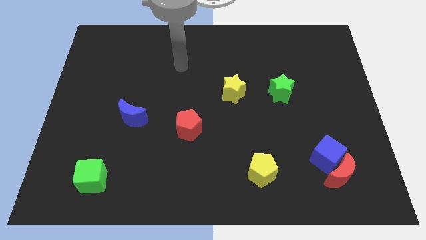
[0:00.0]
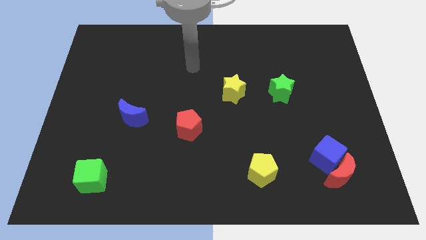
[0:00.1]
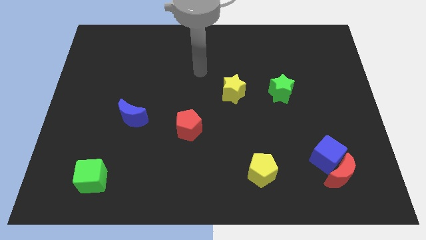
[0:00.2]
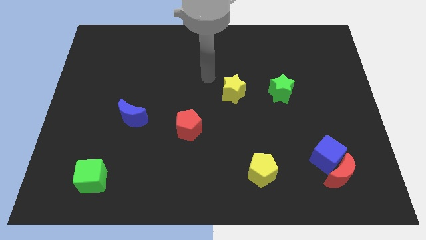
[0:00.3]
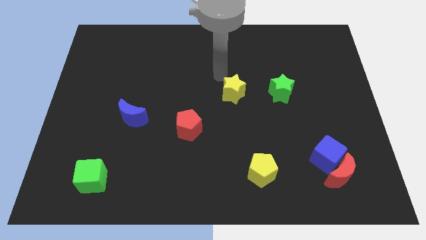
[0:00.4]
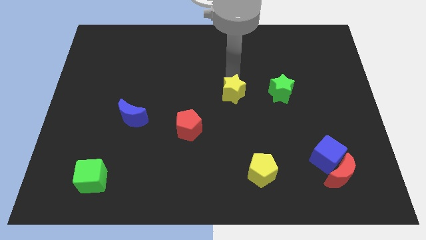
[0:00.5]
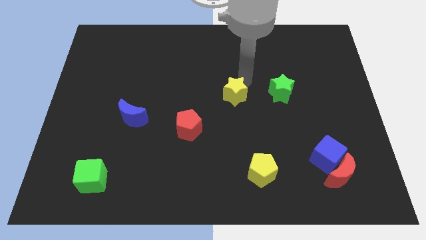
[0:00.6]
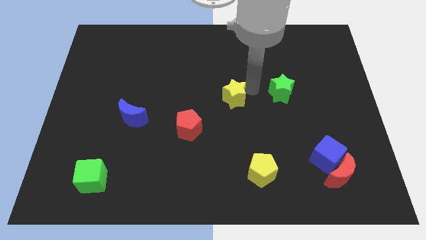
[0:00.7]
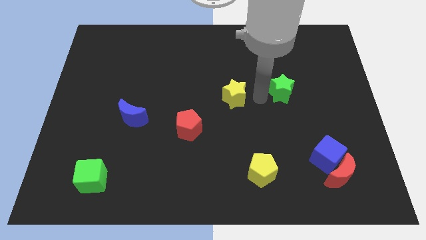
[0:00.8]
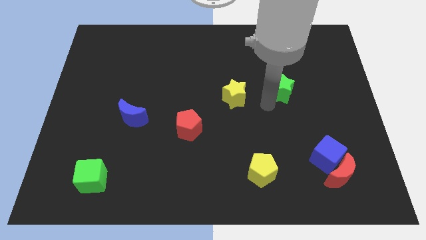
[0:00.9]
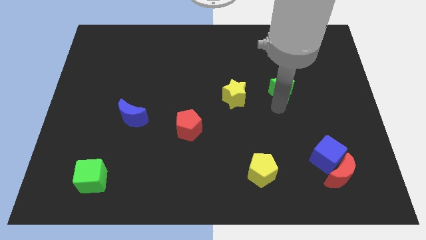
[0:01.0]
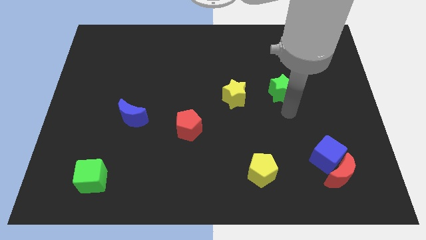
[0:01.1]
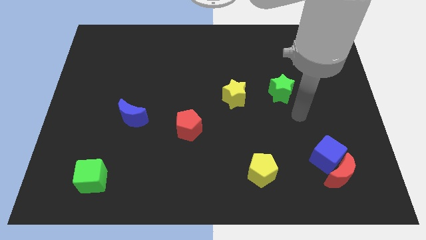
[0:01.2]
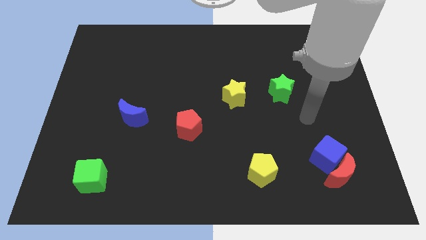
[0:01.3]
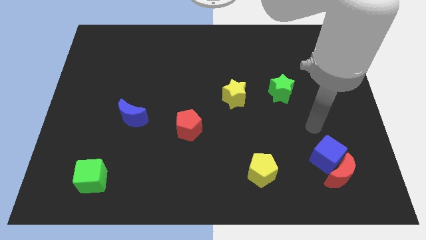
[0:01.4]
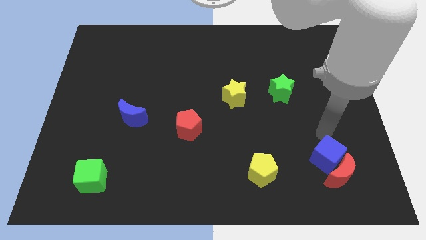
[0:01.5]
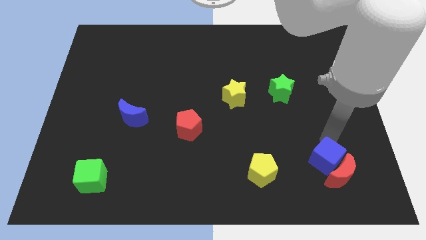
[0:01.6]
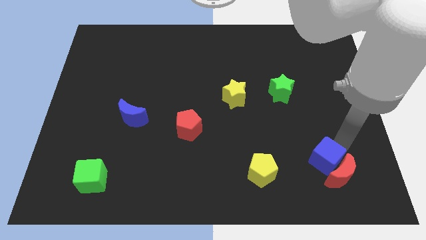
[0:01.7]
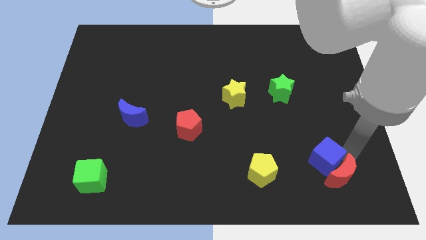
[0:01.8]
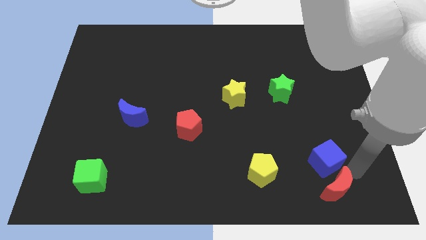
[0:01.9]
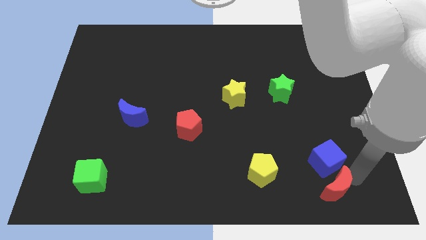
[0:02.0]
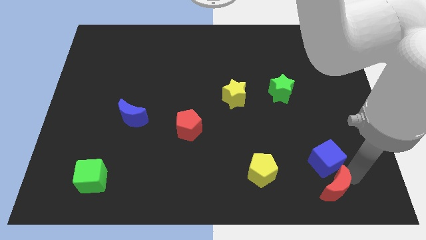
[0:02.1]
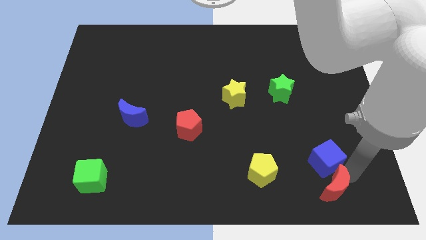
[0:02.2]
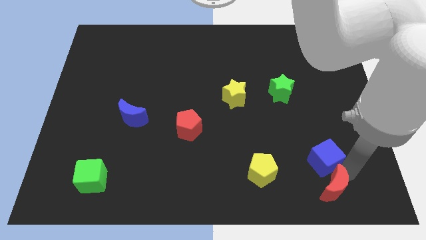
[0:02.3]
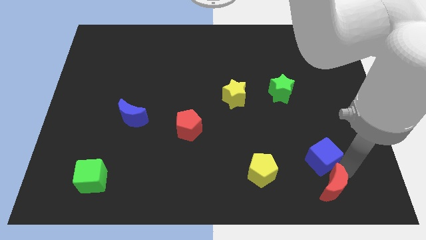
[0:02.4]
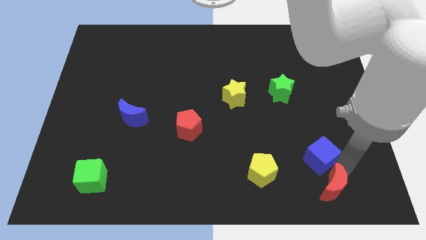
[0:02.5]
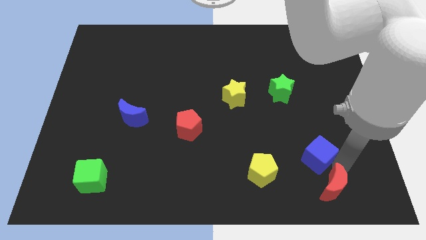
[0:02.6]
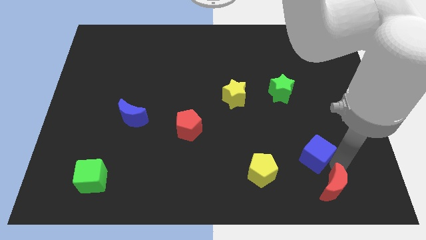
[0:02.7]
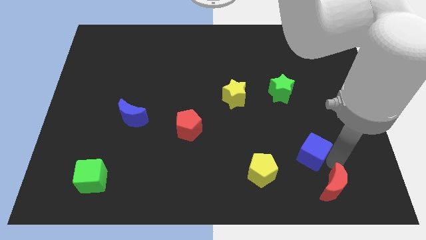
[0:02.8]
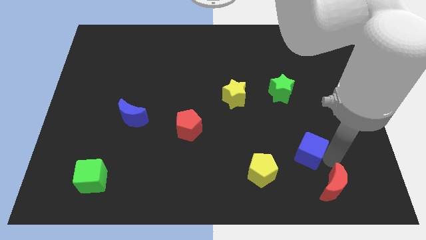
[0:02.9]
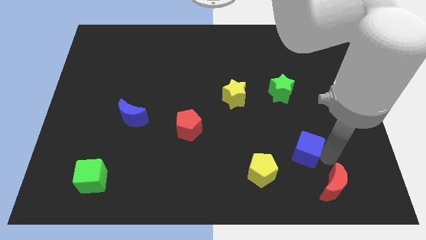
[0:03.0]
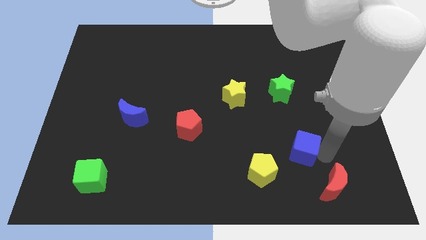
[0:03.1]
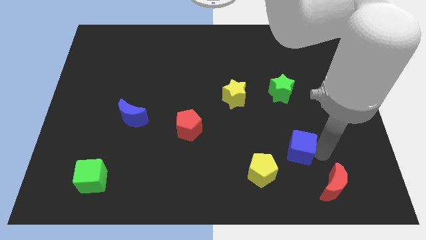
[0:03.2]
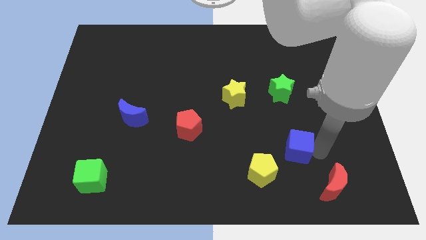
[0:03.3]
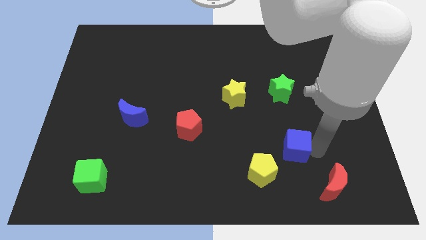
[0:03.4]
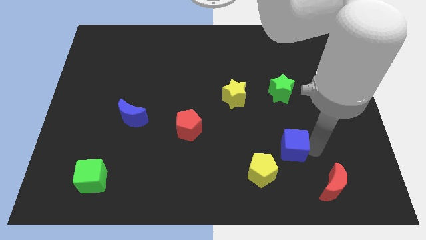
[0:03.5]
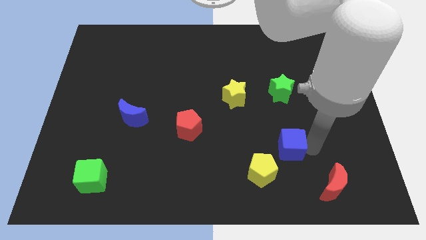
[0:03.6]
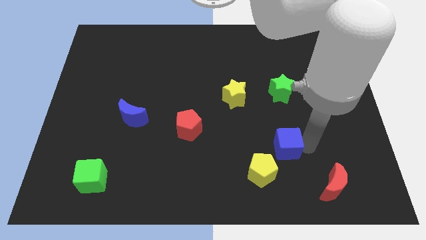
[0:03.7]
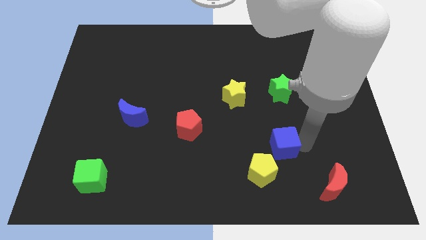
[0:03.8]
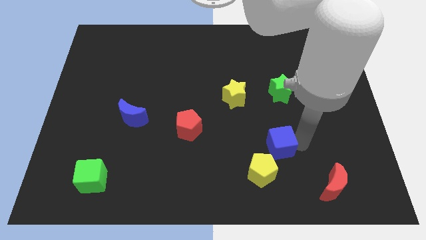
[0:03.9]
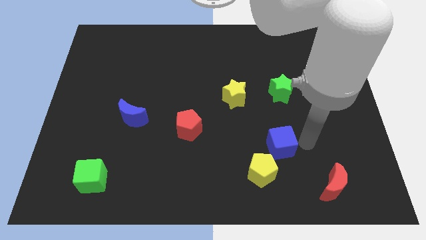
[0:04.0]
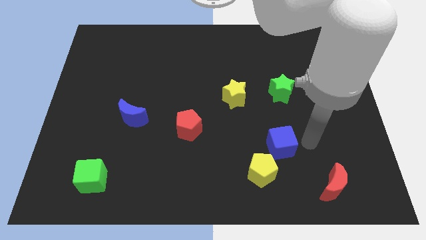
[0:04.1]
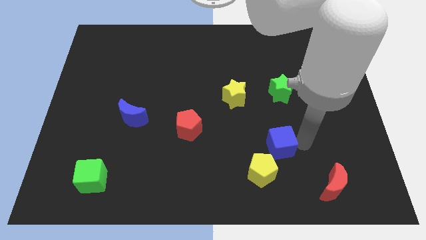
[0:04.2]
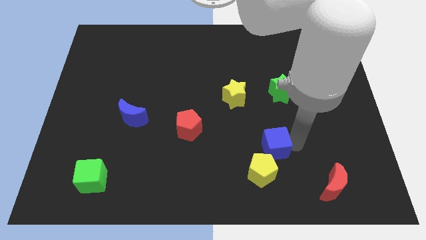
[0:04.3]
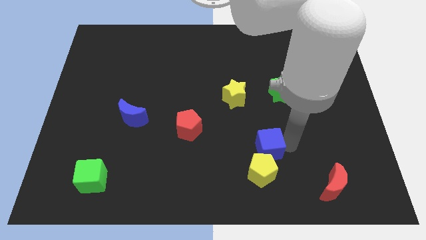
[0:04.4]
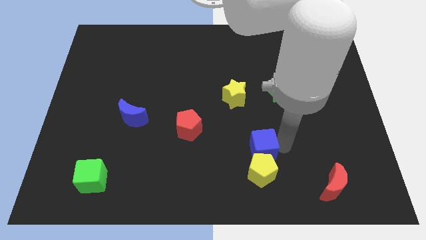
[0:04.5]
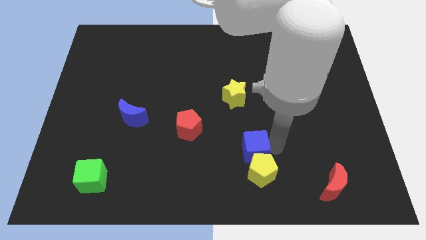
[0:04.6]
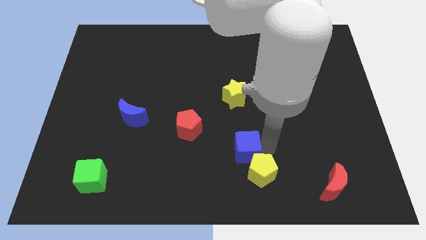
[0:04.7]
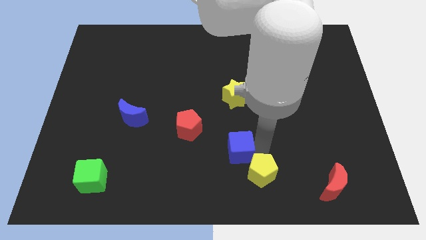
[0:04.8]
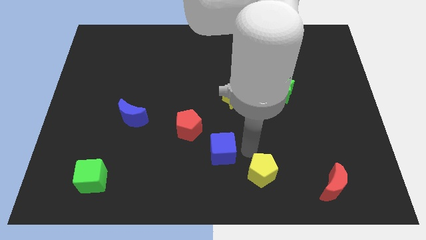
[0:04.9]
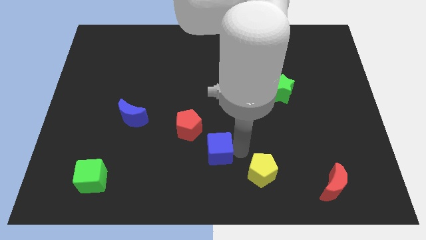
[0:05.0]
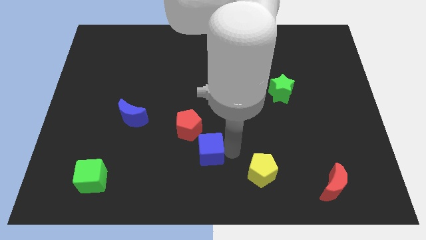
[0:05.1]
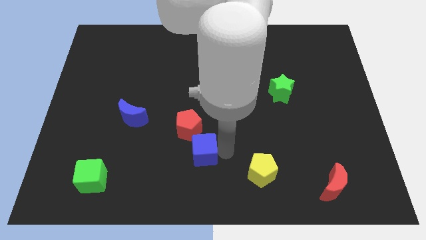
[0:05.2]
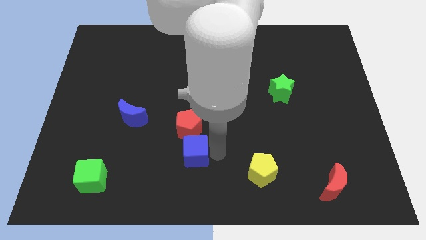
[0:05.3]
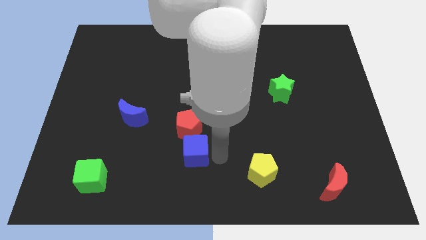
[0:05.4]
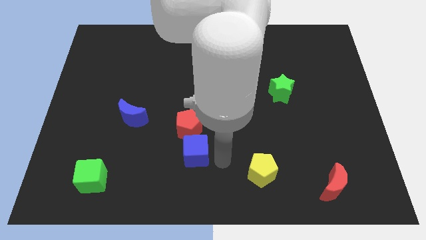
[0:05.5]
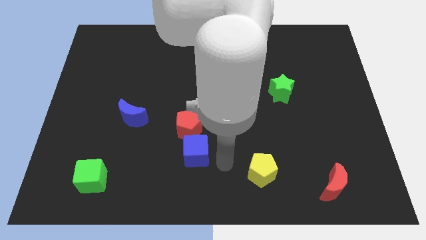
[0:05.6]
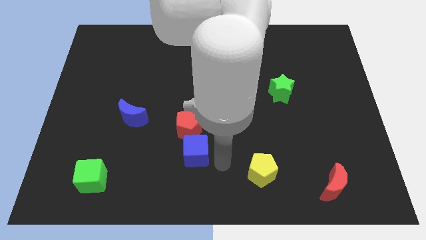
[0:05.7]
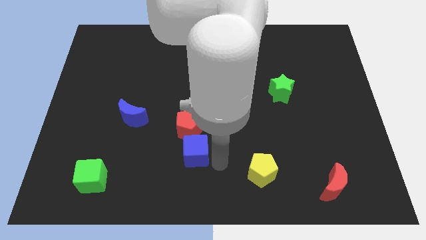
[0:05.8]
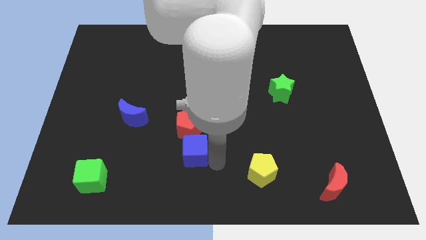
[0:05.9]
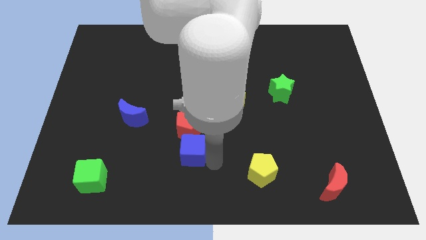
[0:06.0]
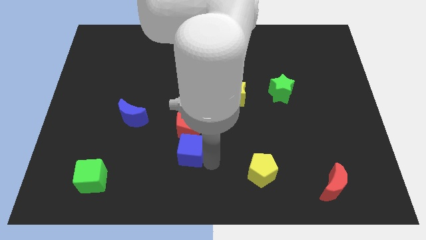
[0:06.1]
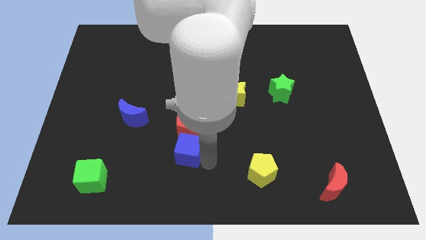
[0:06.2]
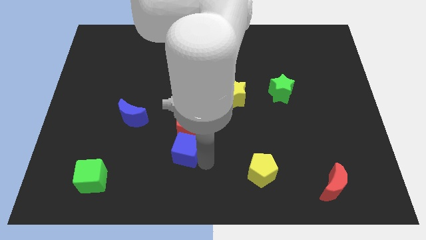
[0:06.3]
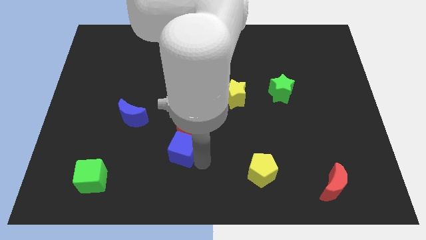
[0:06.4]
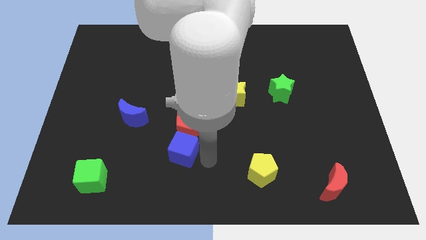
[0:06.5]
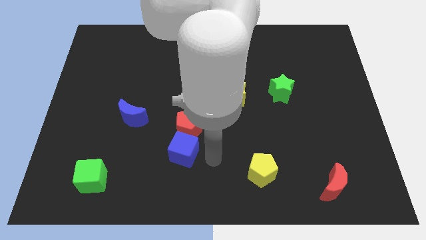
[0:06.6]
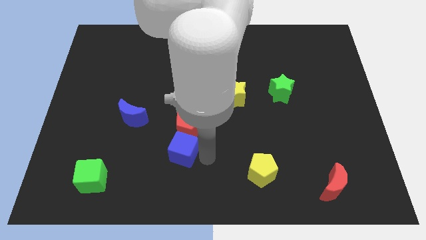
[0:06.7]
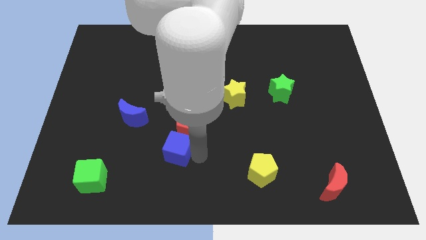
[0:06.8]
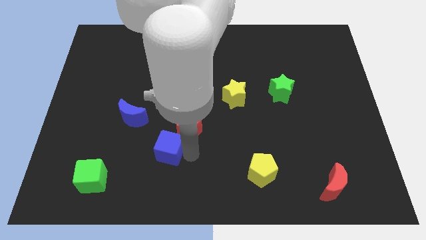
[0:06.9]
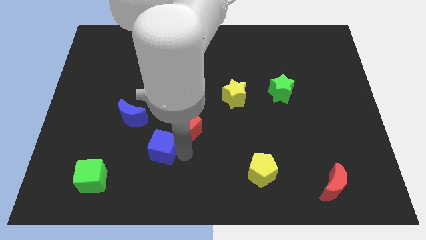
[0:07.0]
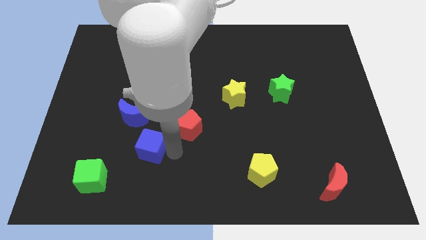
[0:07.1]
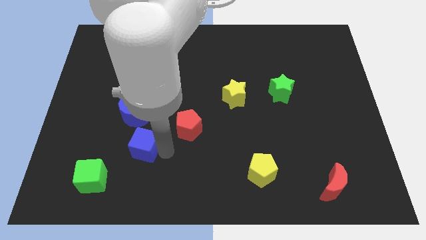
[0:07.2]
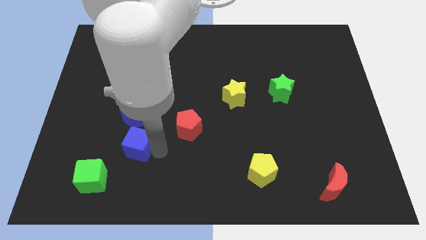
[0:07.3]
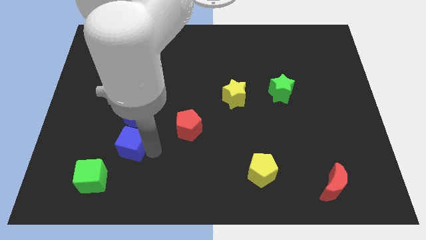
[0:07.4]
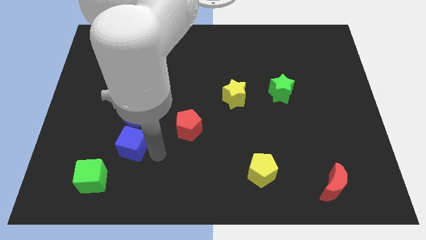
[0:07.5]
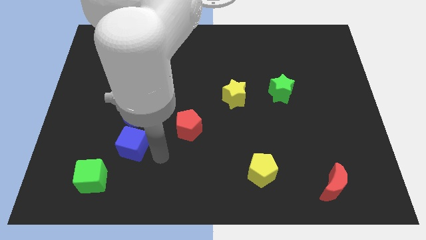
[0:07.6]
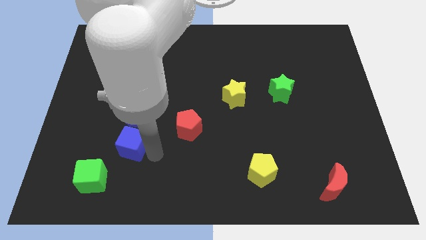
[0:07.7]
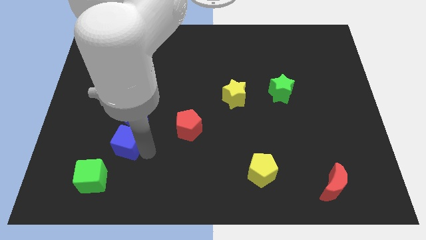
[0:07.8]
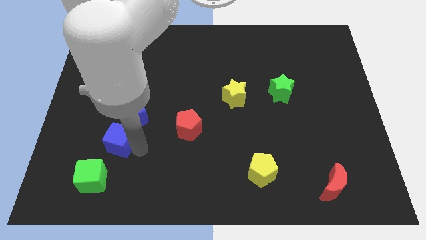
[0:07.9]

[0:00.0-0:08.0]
move the blue cube to the bottom left of the blue moon
